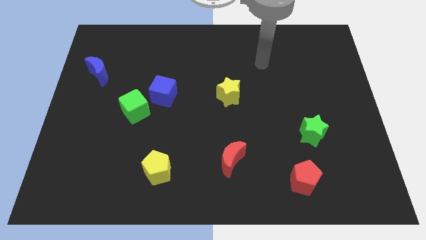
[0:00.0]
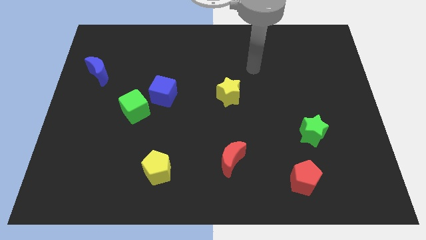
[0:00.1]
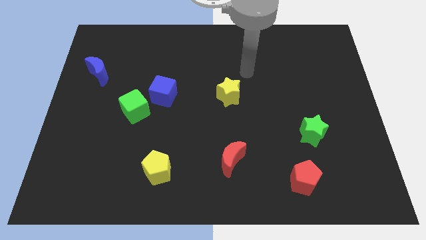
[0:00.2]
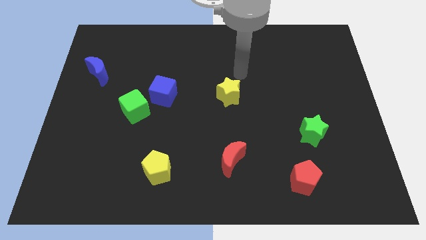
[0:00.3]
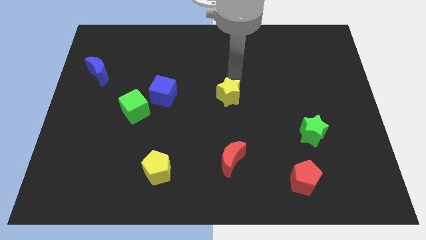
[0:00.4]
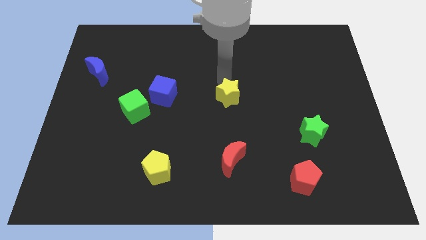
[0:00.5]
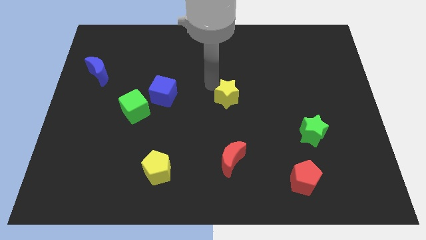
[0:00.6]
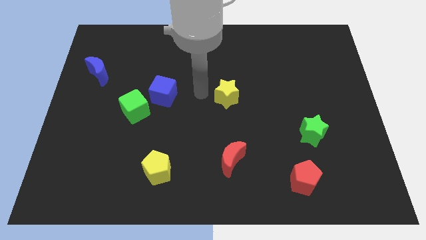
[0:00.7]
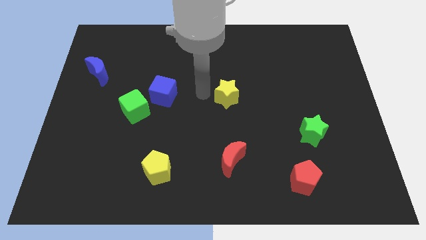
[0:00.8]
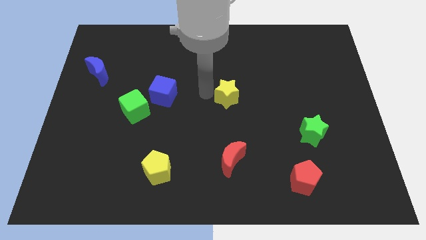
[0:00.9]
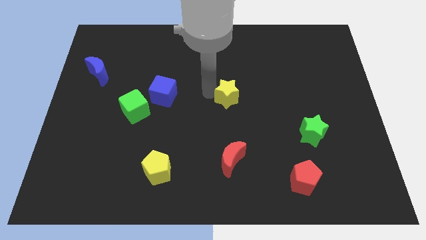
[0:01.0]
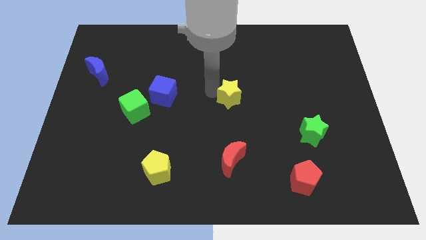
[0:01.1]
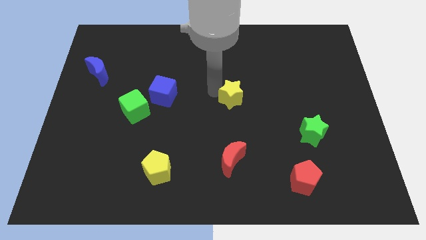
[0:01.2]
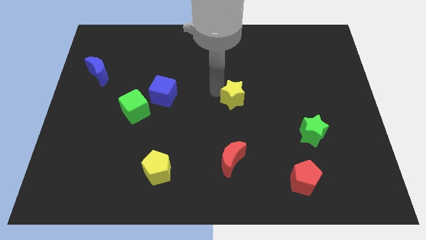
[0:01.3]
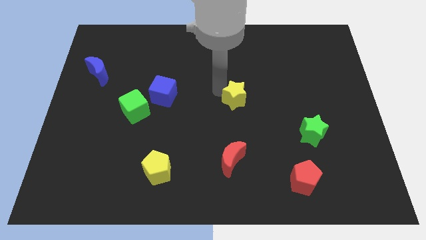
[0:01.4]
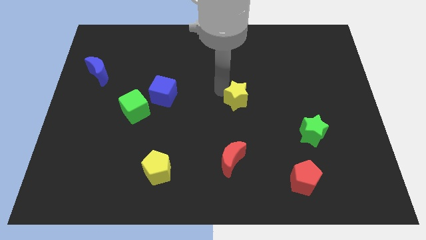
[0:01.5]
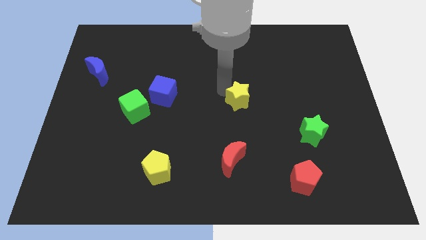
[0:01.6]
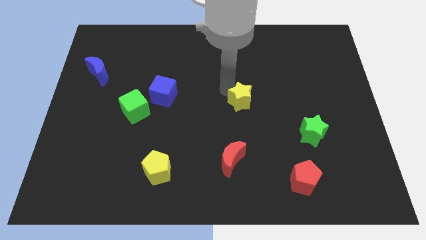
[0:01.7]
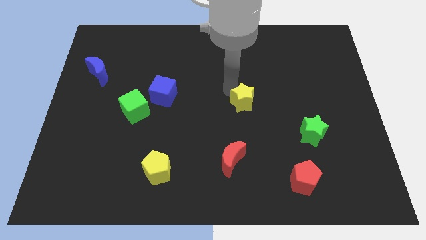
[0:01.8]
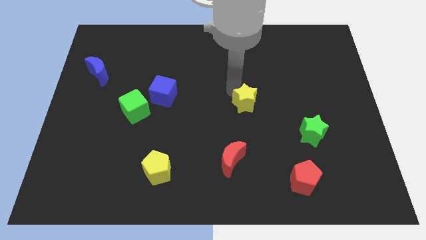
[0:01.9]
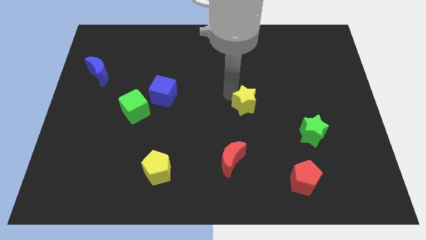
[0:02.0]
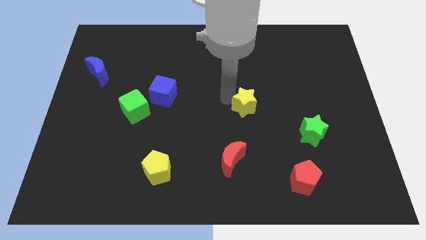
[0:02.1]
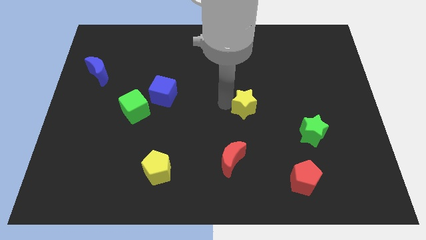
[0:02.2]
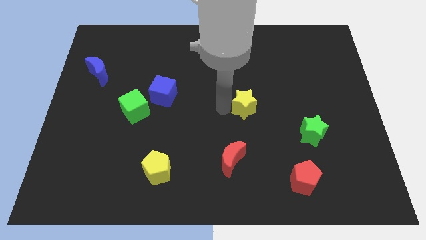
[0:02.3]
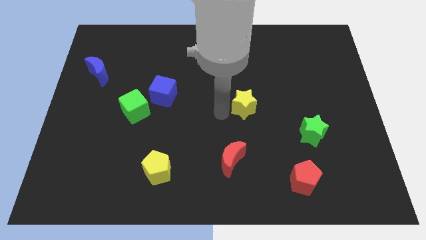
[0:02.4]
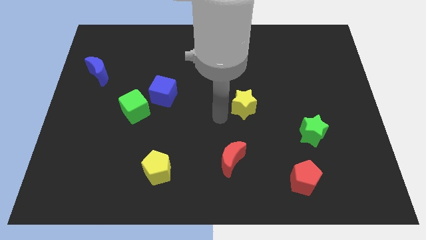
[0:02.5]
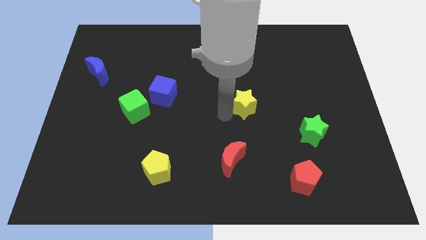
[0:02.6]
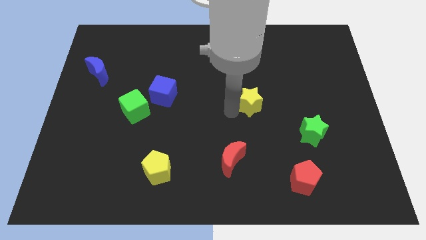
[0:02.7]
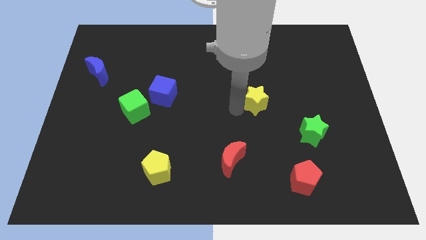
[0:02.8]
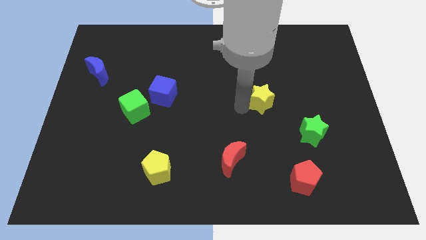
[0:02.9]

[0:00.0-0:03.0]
push the yellow star a little bit right

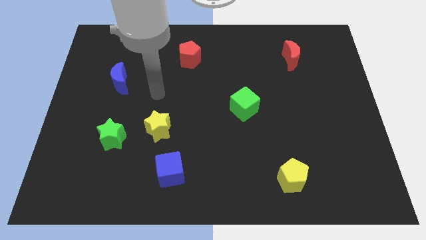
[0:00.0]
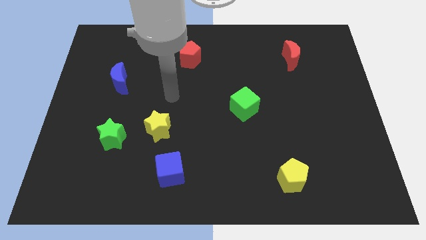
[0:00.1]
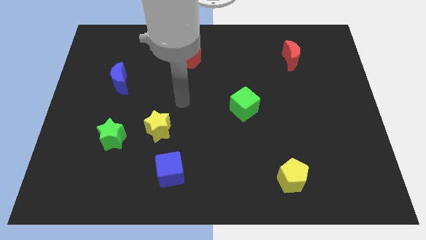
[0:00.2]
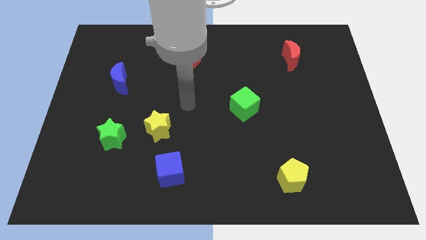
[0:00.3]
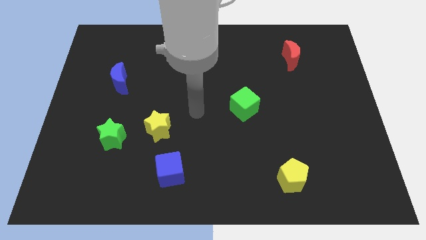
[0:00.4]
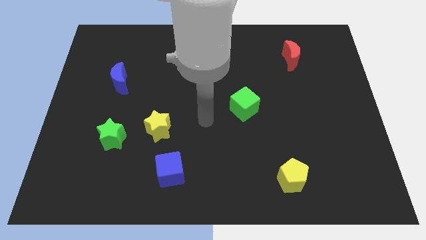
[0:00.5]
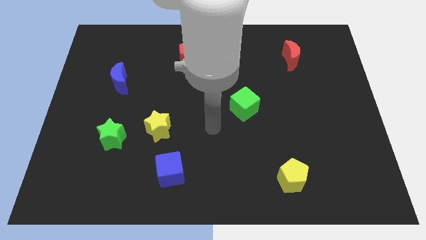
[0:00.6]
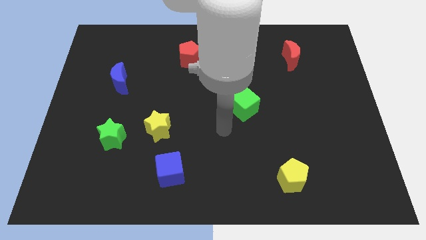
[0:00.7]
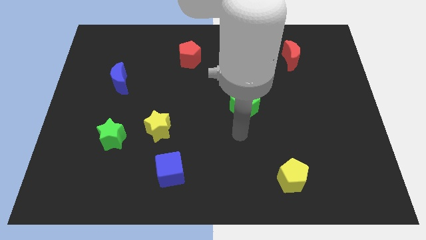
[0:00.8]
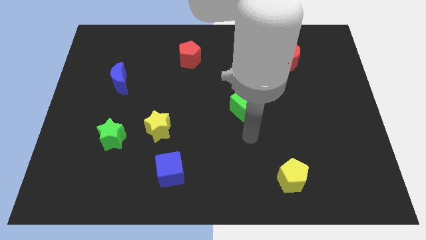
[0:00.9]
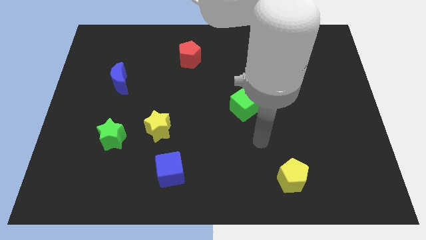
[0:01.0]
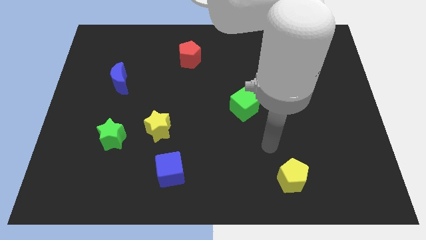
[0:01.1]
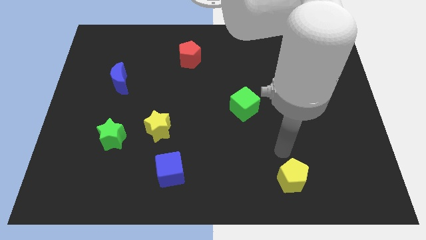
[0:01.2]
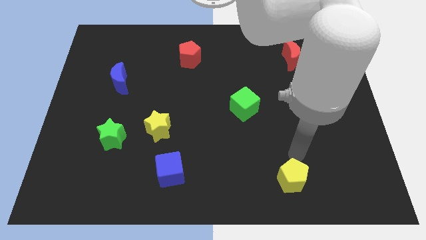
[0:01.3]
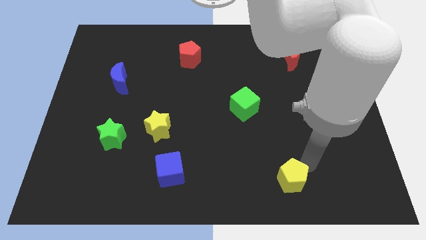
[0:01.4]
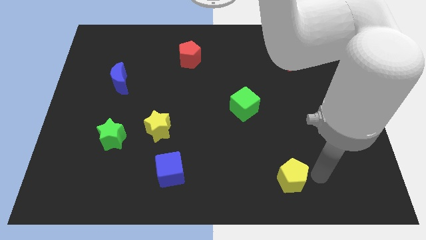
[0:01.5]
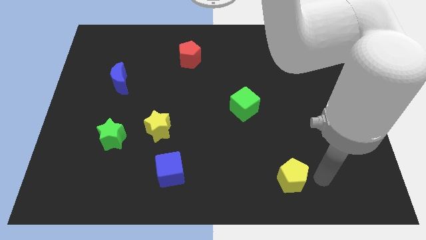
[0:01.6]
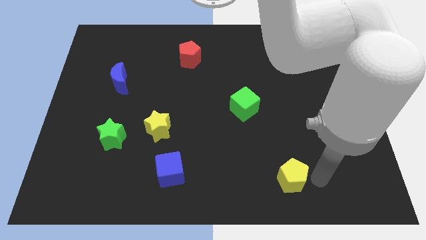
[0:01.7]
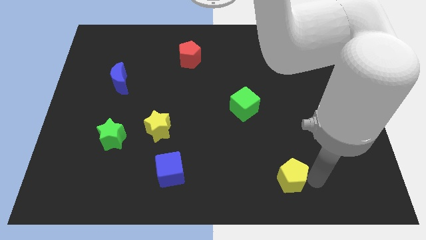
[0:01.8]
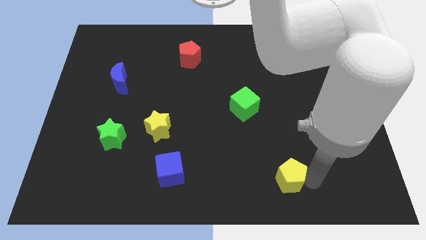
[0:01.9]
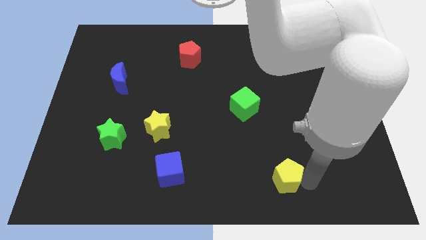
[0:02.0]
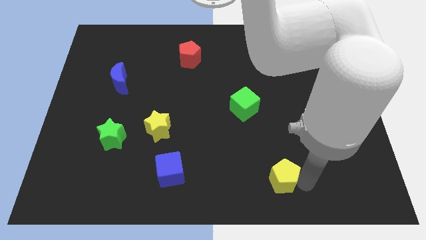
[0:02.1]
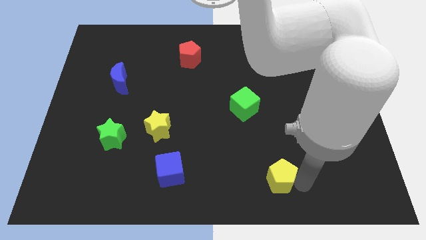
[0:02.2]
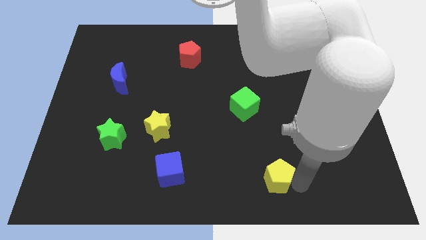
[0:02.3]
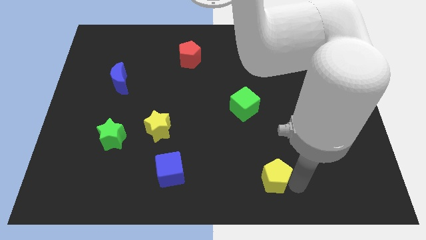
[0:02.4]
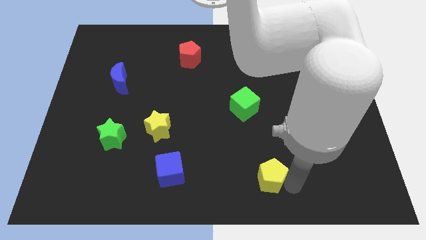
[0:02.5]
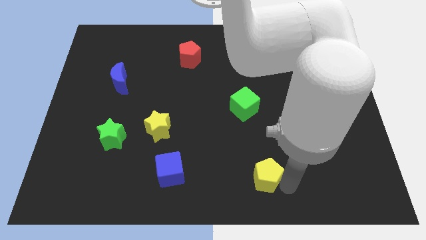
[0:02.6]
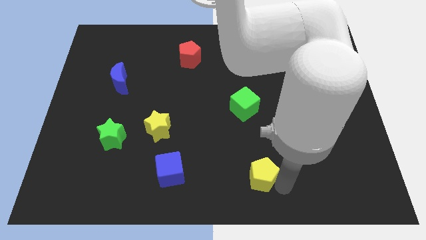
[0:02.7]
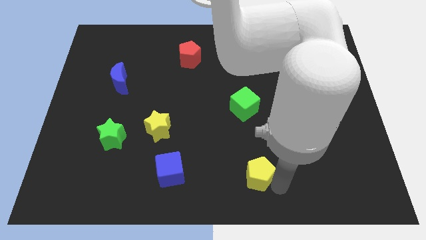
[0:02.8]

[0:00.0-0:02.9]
slightly move the yellow pentagon left

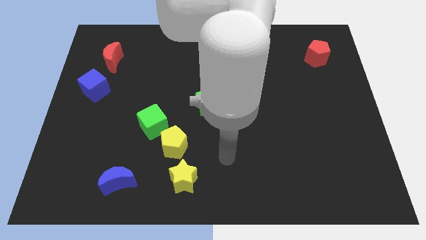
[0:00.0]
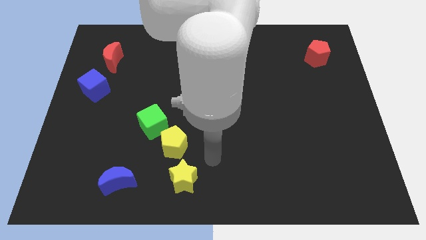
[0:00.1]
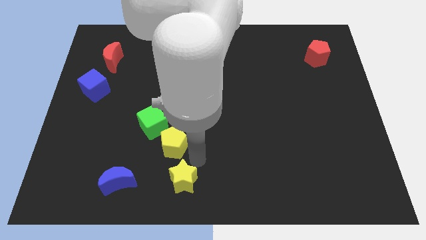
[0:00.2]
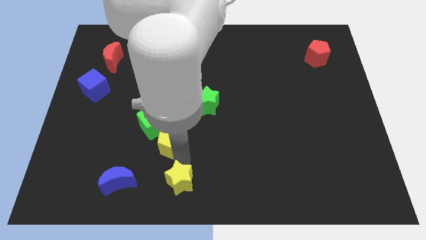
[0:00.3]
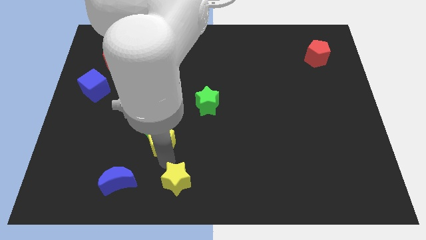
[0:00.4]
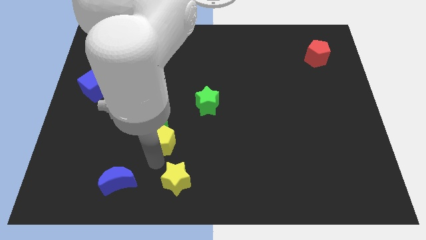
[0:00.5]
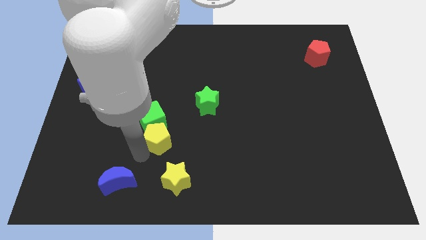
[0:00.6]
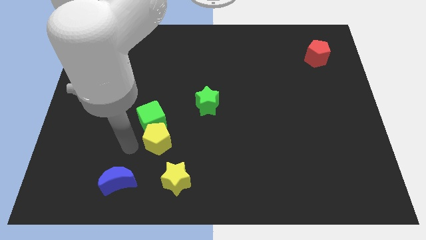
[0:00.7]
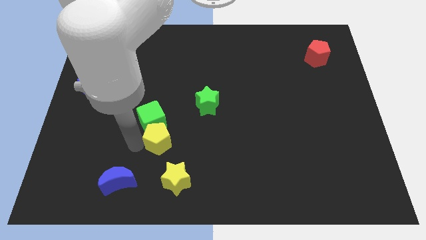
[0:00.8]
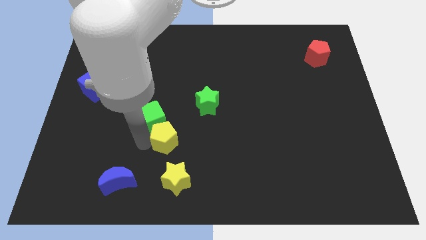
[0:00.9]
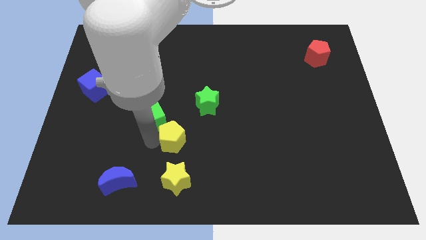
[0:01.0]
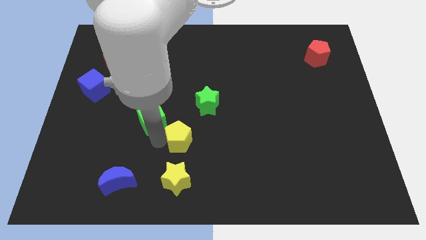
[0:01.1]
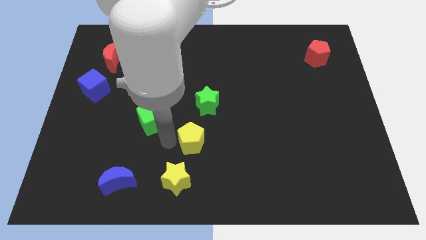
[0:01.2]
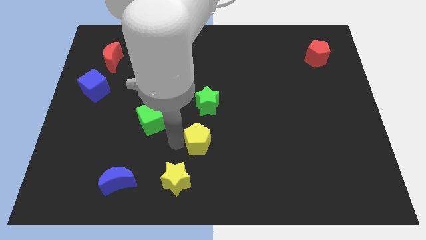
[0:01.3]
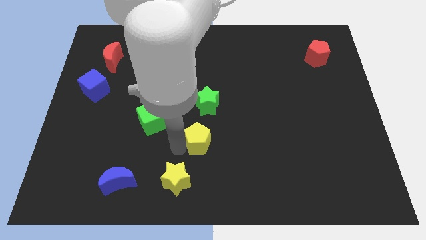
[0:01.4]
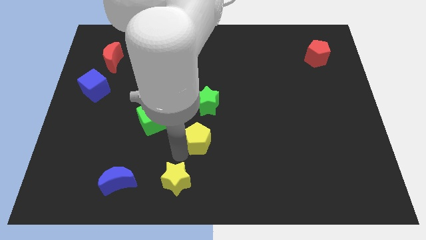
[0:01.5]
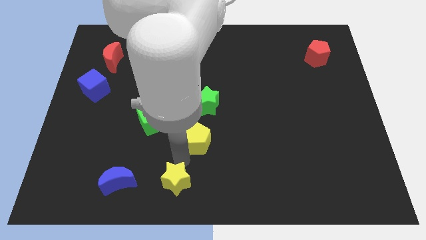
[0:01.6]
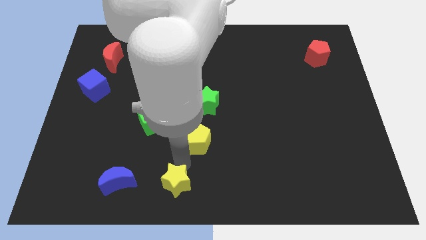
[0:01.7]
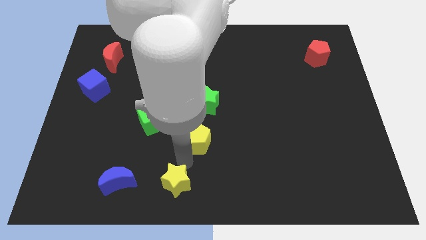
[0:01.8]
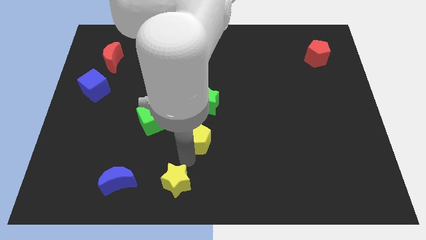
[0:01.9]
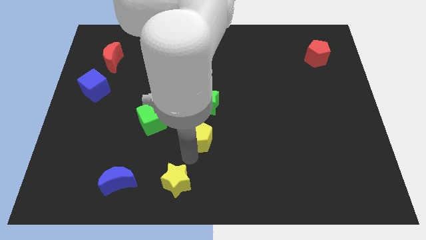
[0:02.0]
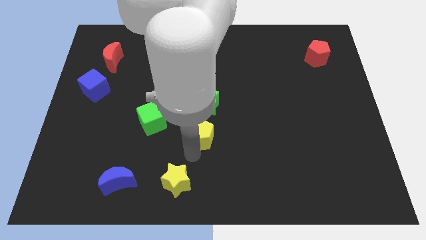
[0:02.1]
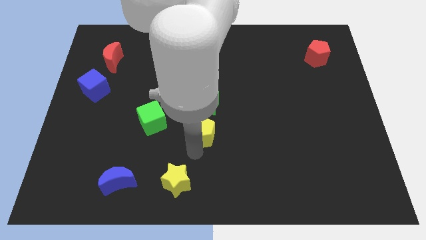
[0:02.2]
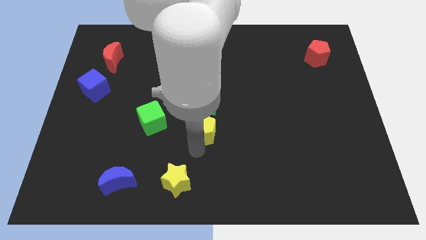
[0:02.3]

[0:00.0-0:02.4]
move the yellow pentagon a little bit upwards and to the right

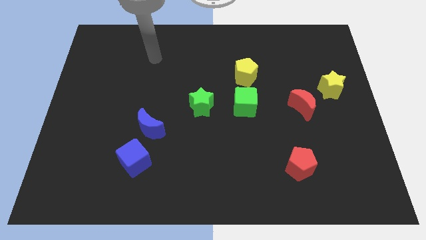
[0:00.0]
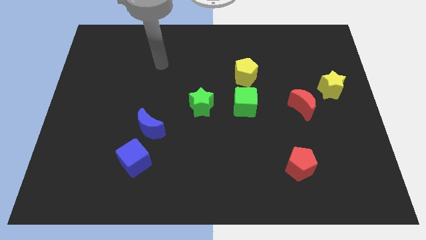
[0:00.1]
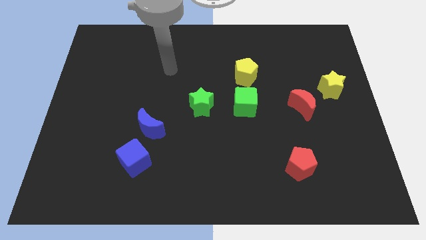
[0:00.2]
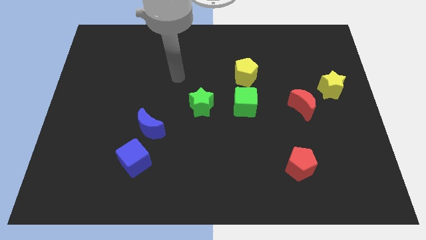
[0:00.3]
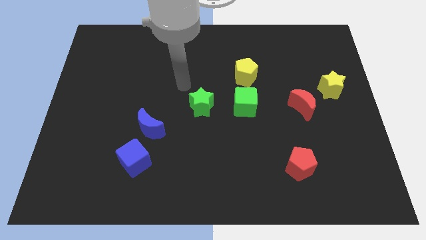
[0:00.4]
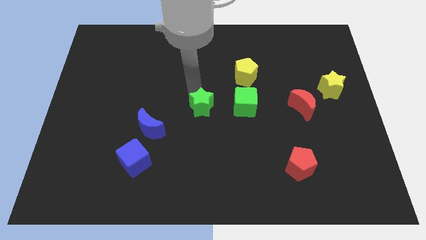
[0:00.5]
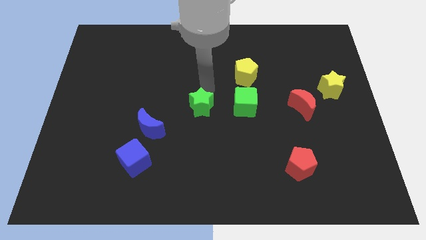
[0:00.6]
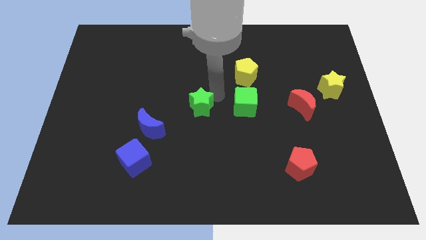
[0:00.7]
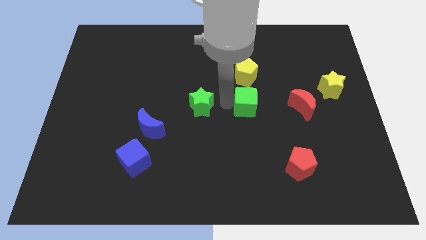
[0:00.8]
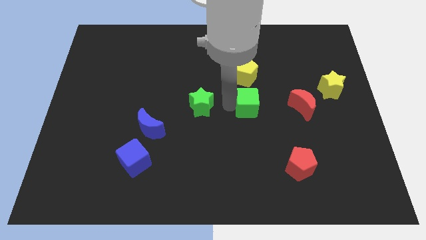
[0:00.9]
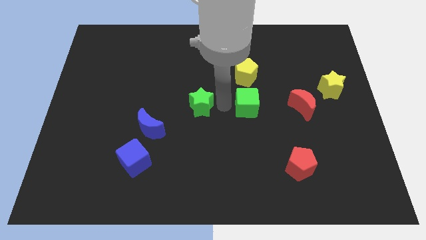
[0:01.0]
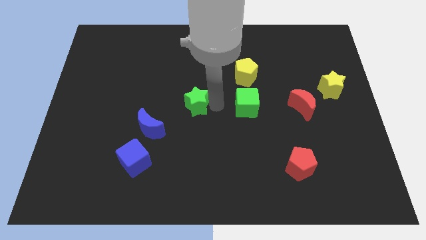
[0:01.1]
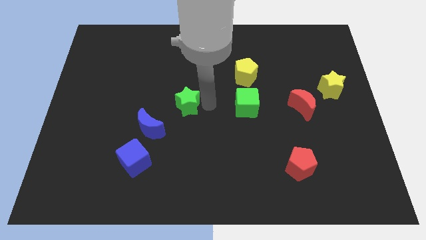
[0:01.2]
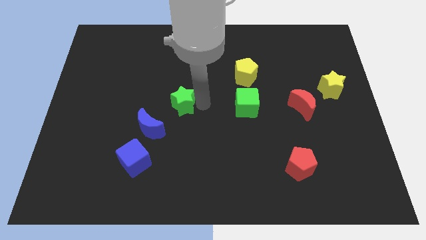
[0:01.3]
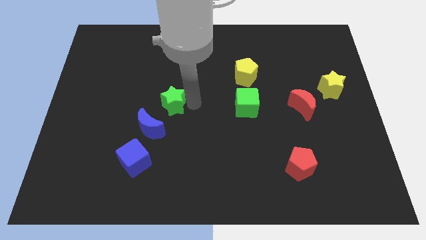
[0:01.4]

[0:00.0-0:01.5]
slightly slide the green star to the left
